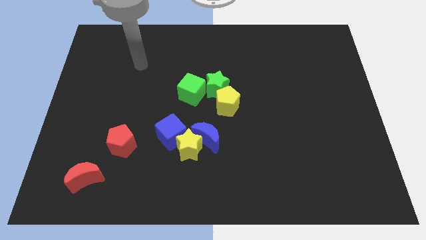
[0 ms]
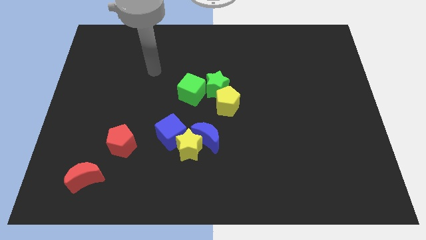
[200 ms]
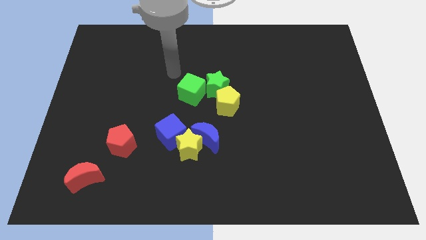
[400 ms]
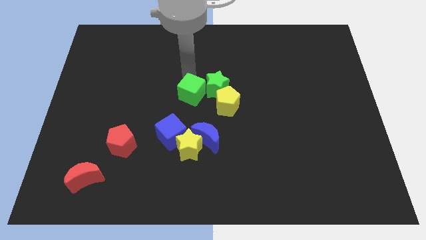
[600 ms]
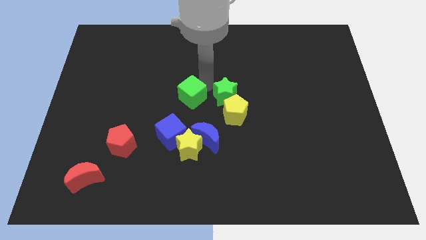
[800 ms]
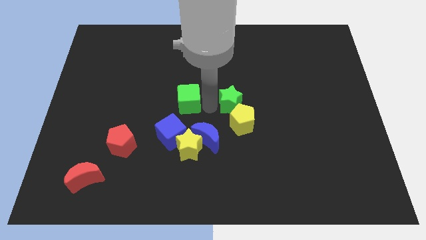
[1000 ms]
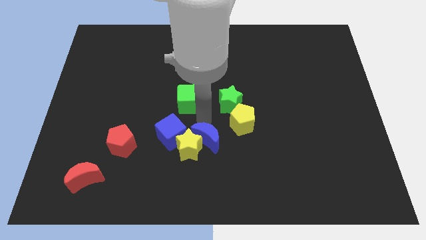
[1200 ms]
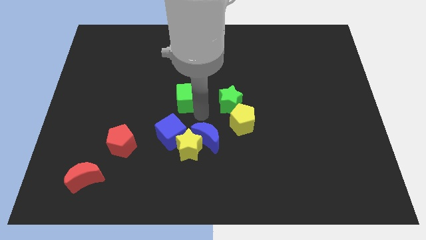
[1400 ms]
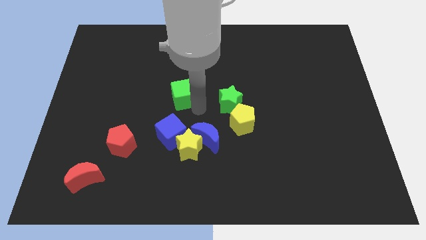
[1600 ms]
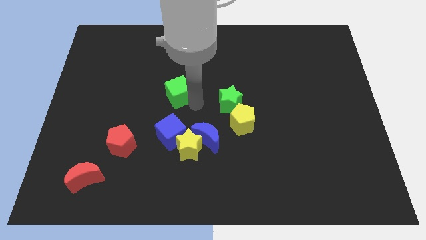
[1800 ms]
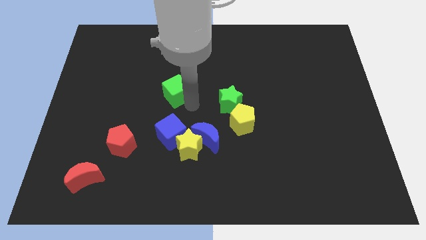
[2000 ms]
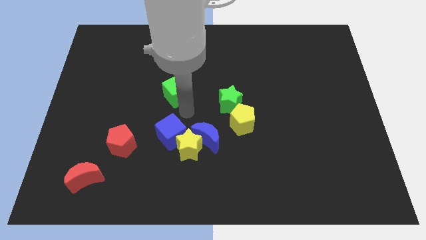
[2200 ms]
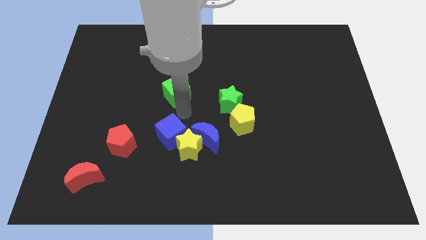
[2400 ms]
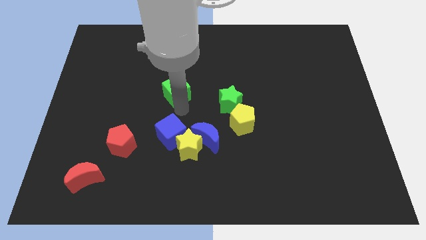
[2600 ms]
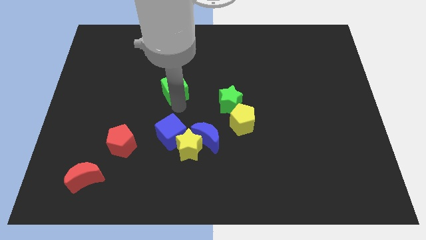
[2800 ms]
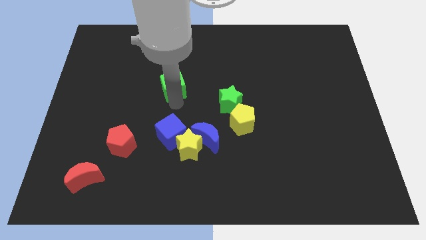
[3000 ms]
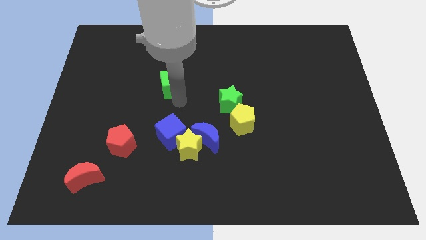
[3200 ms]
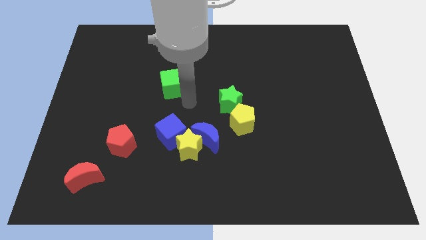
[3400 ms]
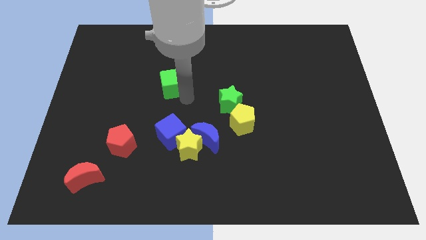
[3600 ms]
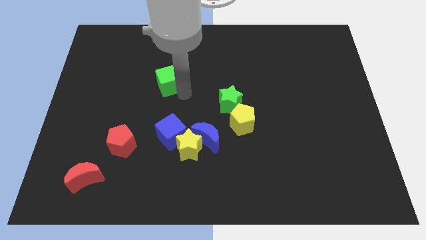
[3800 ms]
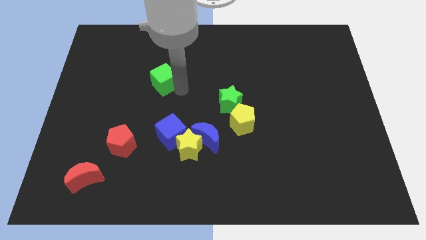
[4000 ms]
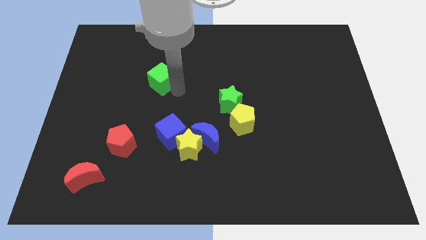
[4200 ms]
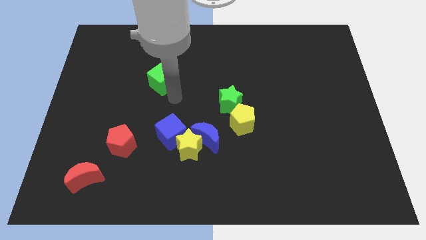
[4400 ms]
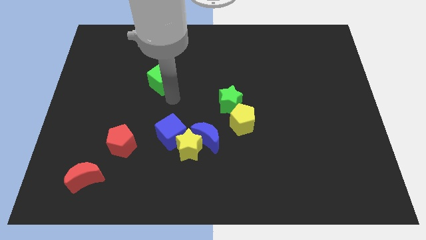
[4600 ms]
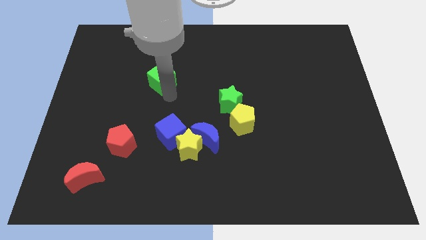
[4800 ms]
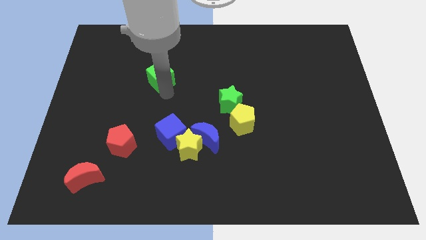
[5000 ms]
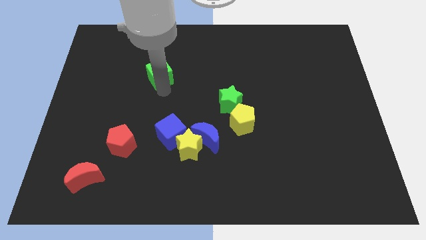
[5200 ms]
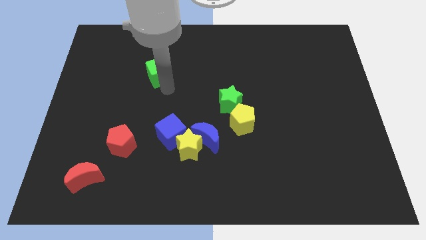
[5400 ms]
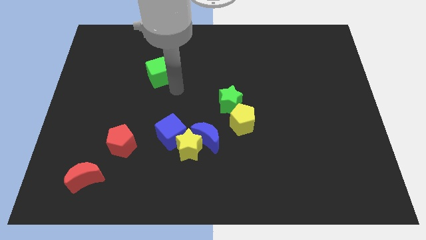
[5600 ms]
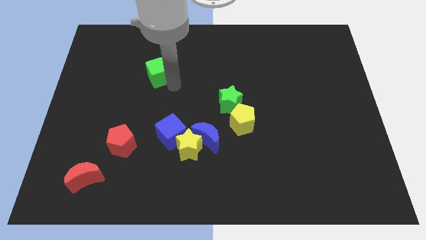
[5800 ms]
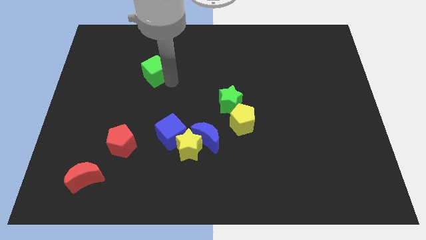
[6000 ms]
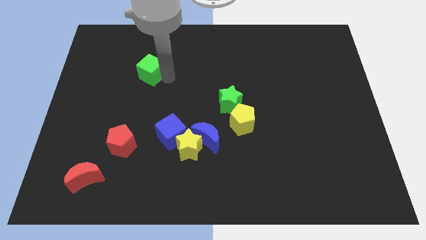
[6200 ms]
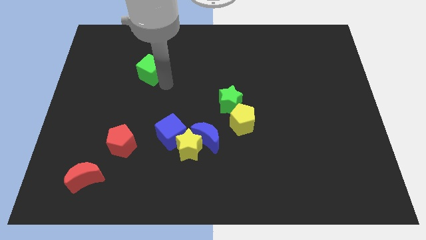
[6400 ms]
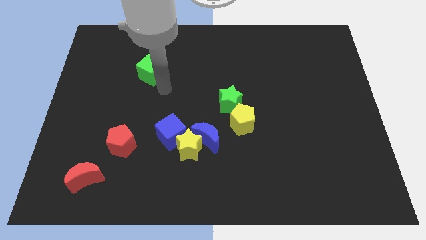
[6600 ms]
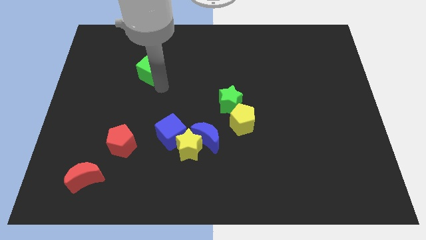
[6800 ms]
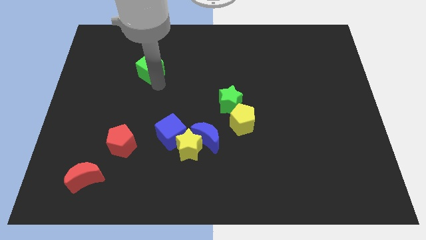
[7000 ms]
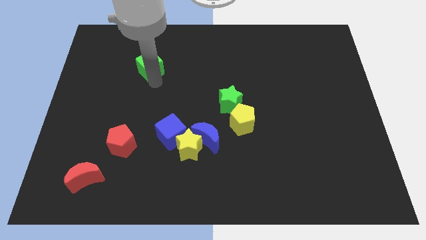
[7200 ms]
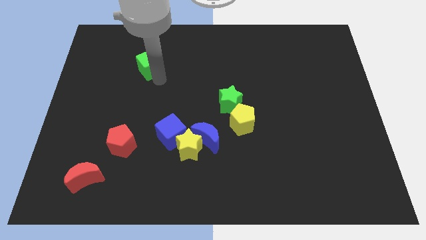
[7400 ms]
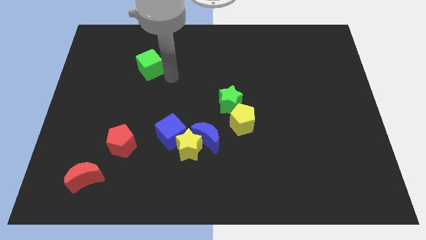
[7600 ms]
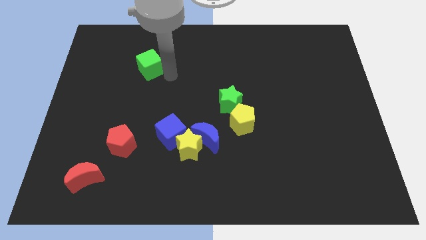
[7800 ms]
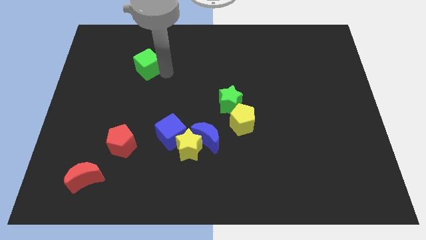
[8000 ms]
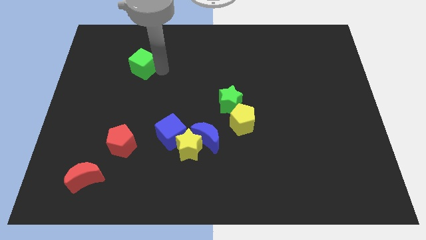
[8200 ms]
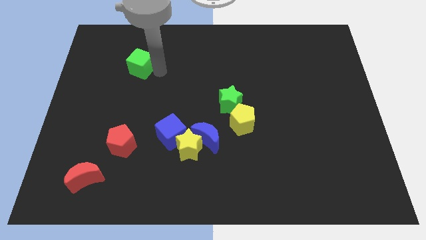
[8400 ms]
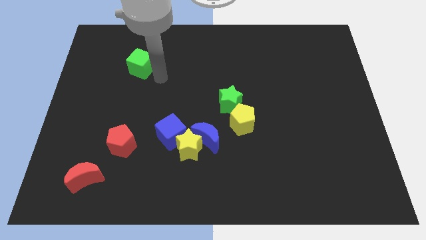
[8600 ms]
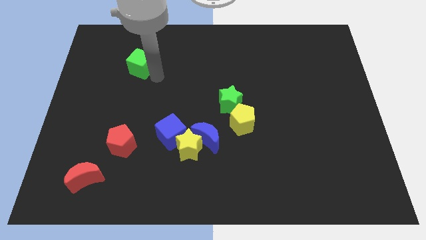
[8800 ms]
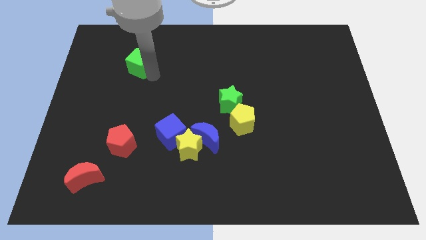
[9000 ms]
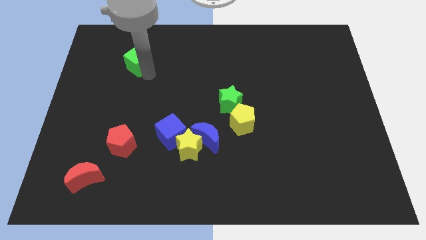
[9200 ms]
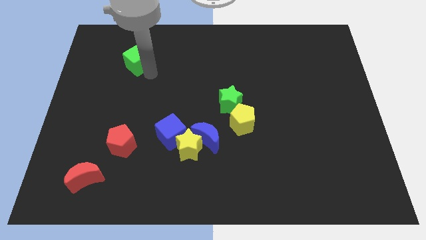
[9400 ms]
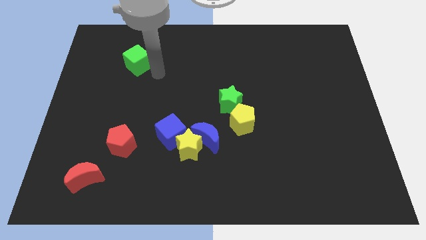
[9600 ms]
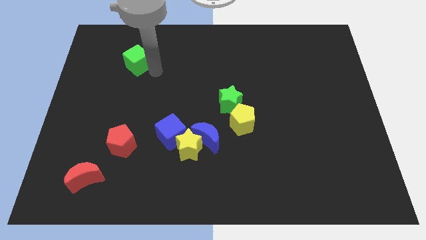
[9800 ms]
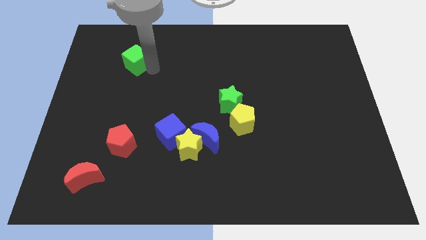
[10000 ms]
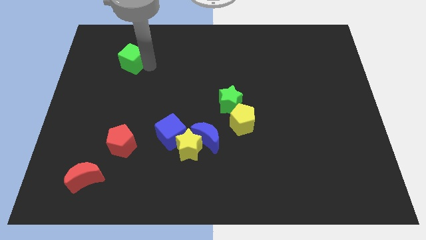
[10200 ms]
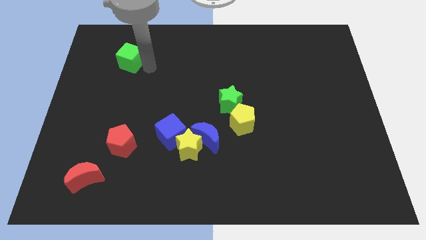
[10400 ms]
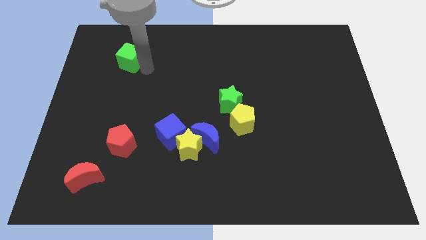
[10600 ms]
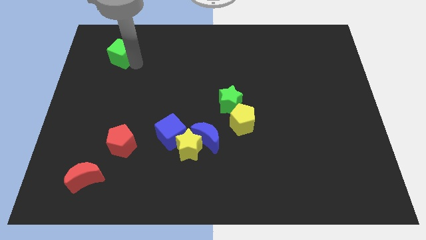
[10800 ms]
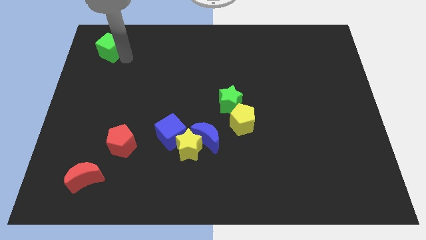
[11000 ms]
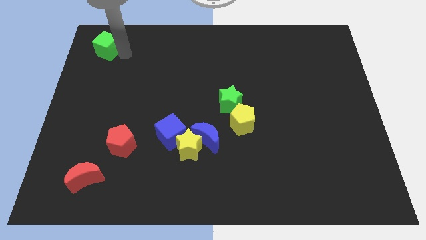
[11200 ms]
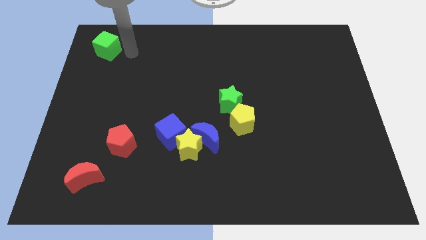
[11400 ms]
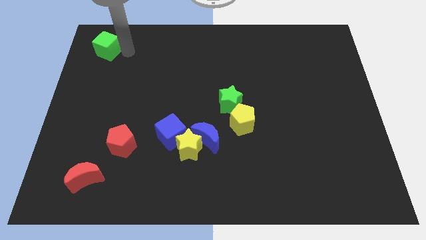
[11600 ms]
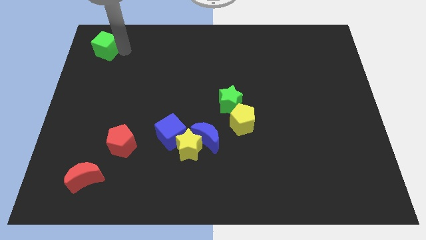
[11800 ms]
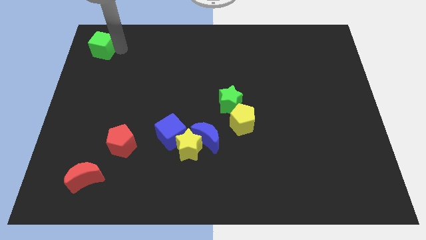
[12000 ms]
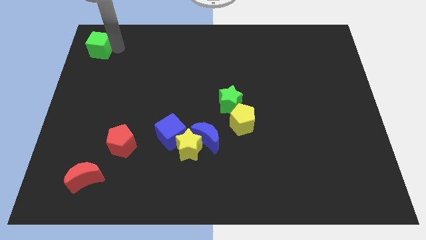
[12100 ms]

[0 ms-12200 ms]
push the green cube to the top left of the board

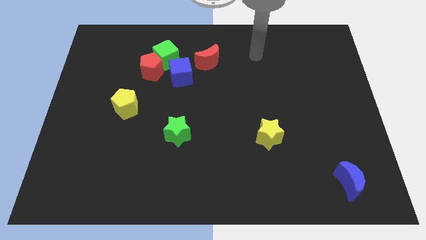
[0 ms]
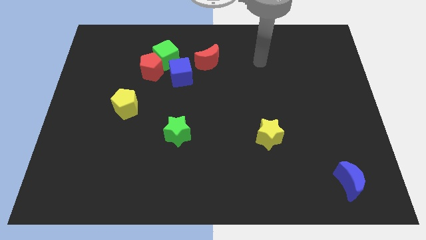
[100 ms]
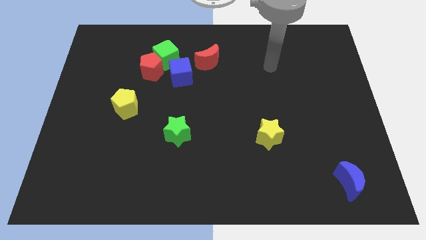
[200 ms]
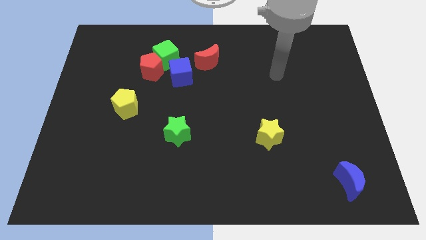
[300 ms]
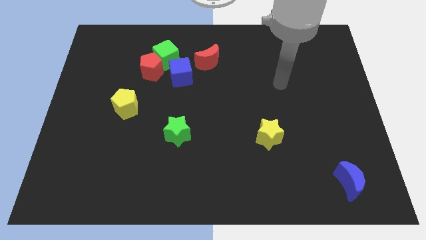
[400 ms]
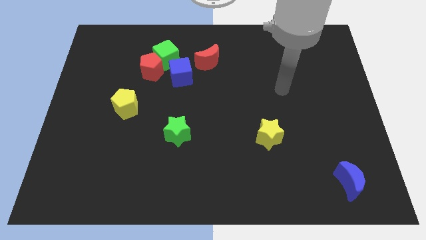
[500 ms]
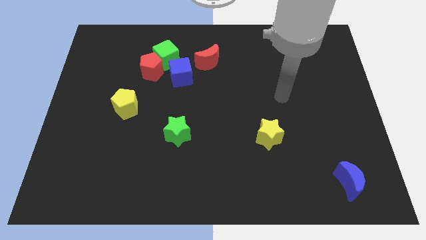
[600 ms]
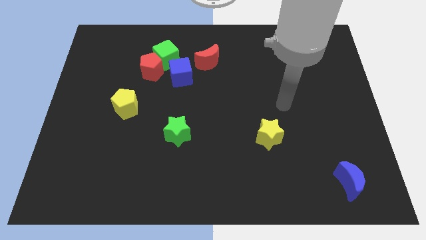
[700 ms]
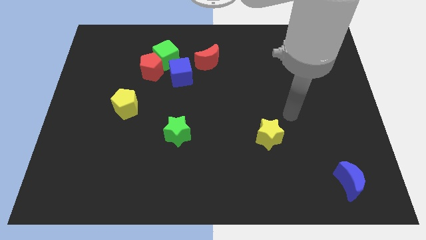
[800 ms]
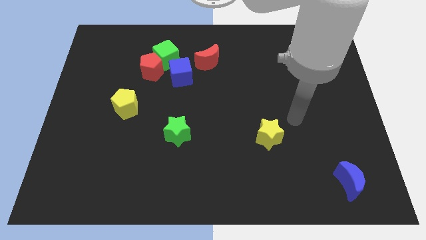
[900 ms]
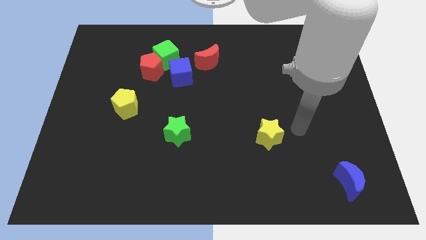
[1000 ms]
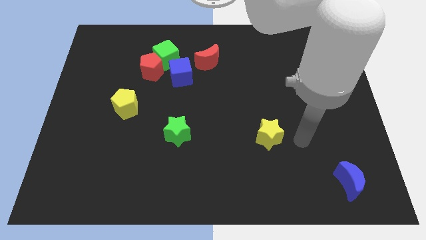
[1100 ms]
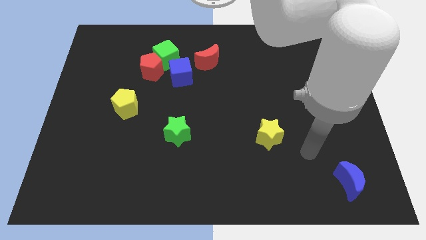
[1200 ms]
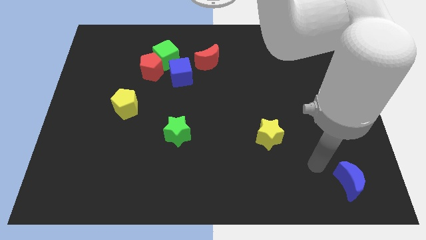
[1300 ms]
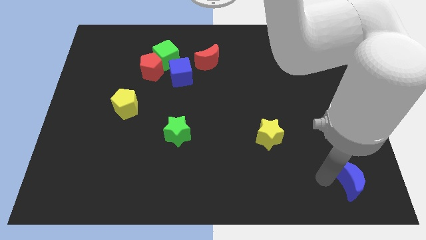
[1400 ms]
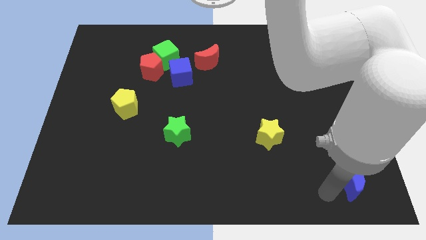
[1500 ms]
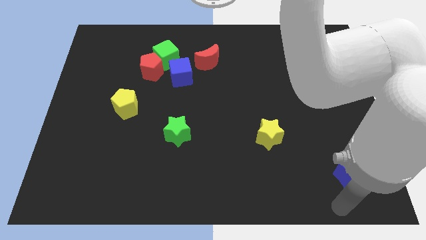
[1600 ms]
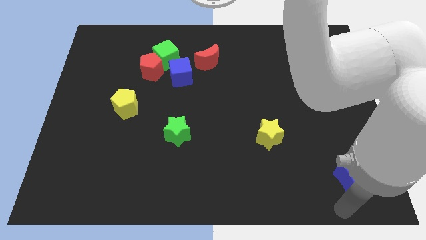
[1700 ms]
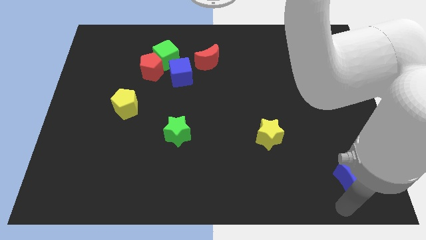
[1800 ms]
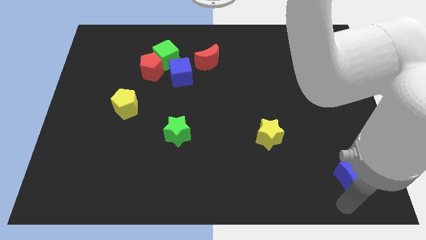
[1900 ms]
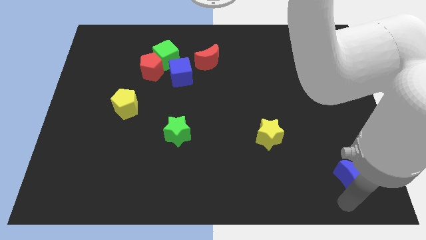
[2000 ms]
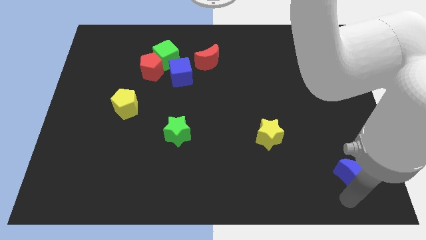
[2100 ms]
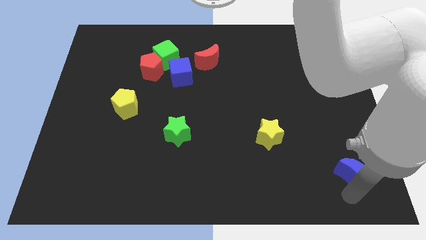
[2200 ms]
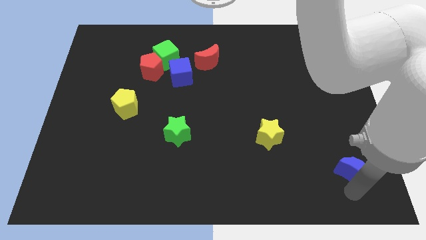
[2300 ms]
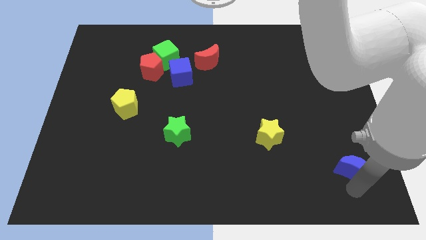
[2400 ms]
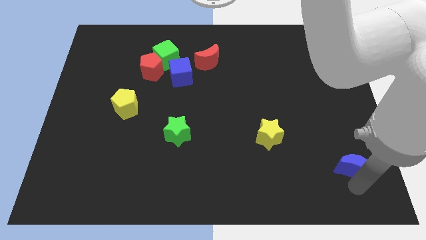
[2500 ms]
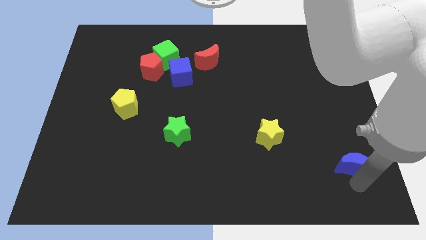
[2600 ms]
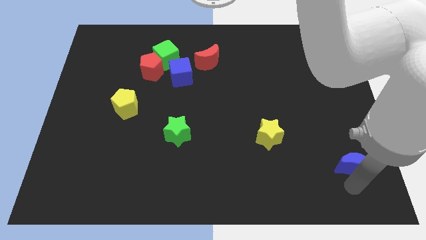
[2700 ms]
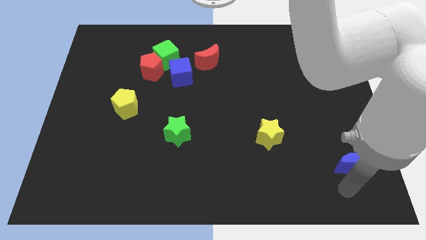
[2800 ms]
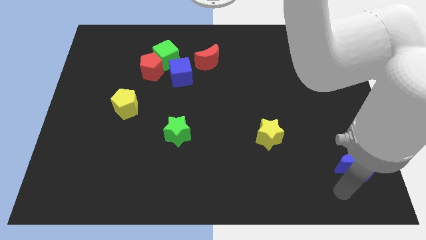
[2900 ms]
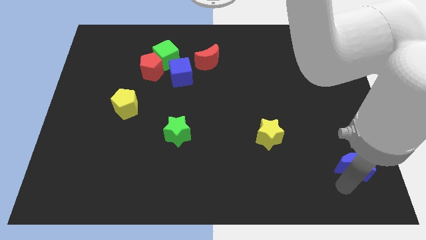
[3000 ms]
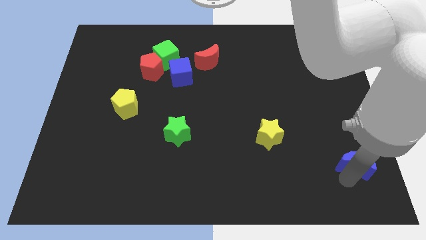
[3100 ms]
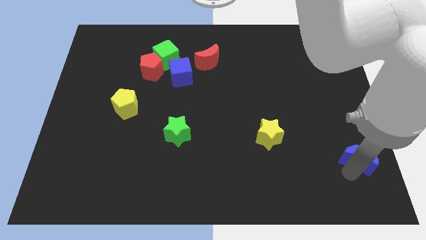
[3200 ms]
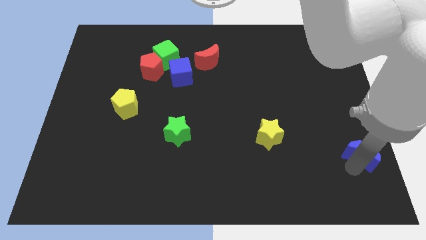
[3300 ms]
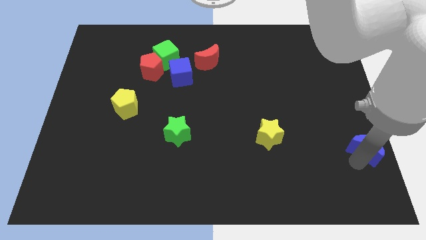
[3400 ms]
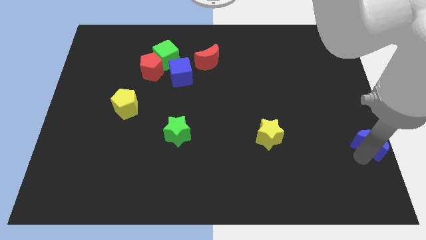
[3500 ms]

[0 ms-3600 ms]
push the blue moon to the right side of the board
